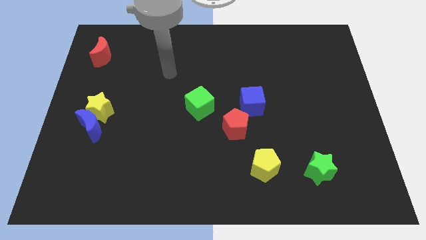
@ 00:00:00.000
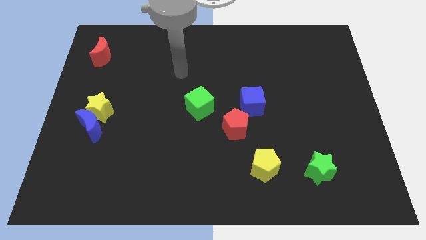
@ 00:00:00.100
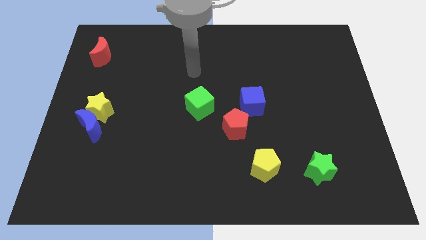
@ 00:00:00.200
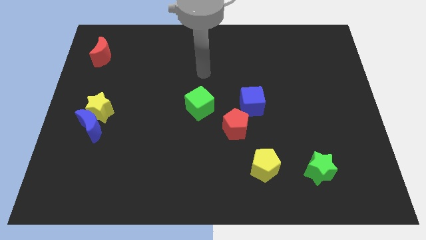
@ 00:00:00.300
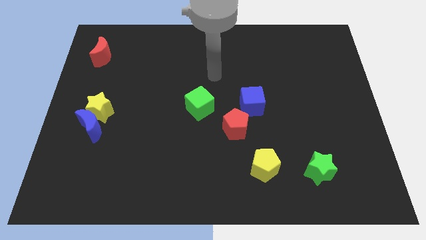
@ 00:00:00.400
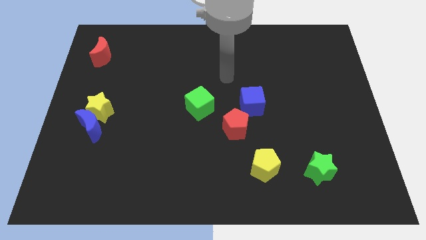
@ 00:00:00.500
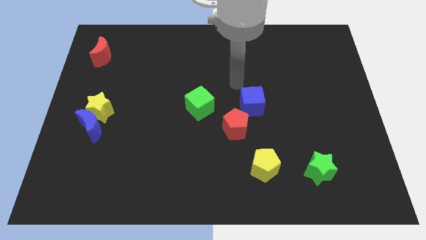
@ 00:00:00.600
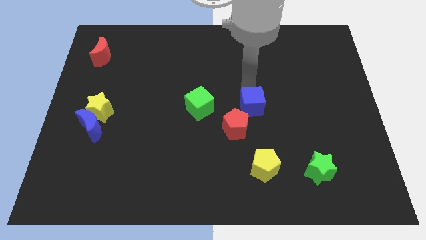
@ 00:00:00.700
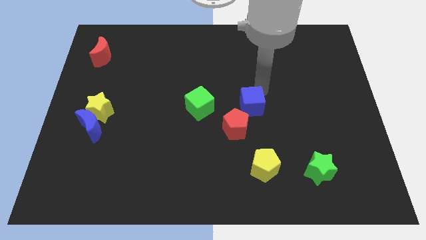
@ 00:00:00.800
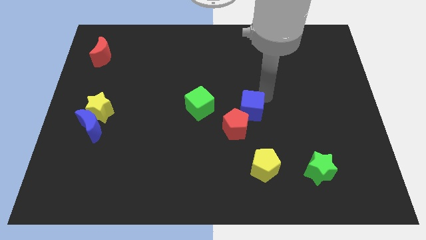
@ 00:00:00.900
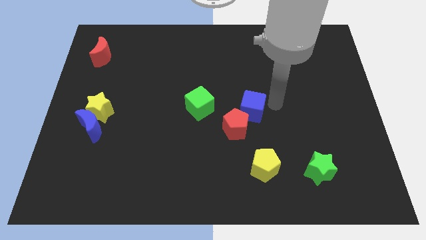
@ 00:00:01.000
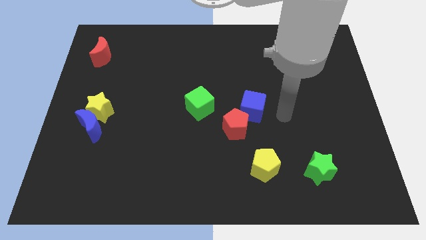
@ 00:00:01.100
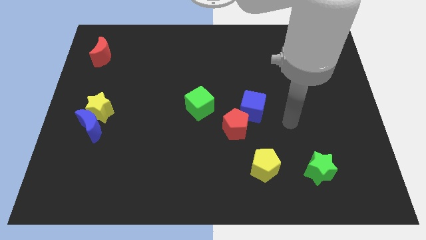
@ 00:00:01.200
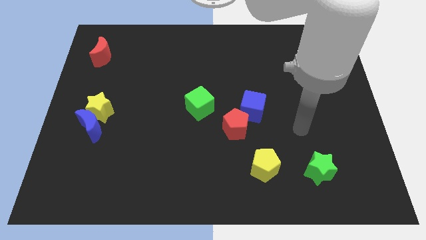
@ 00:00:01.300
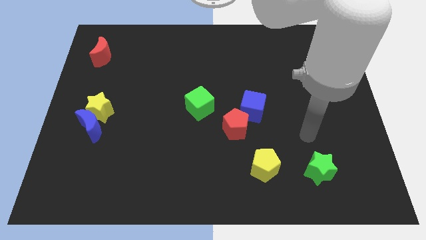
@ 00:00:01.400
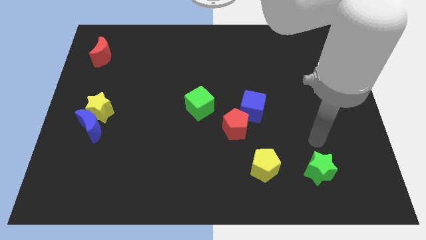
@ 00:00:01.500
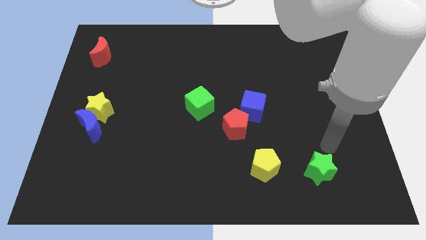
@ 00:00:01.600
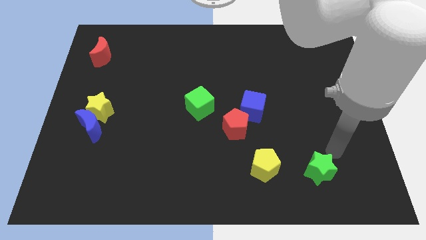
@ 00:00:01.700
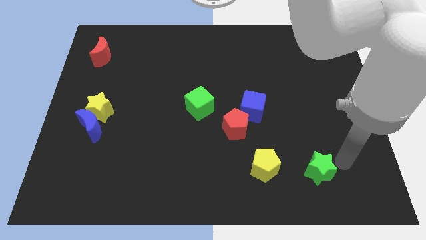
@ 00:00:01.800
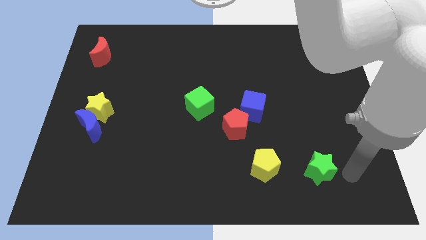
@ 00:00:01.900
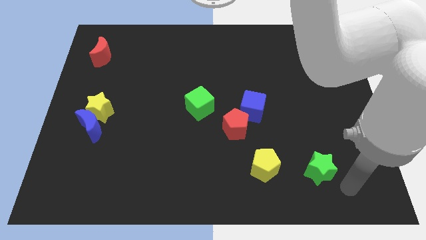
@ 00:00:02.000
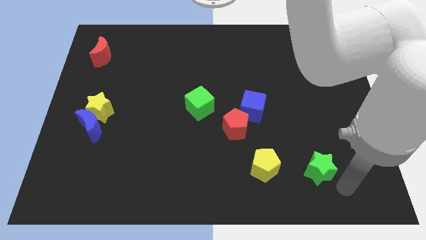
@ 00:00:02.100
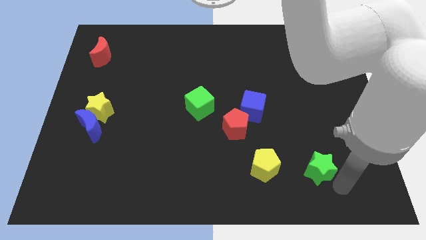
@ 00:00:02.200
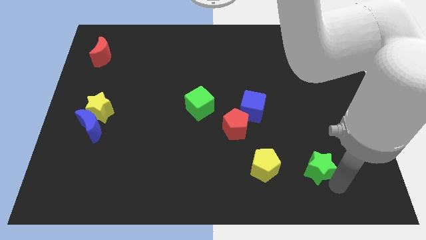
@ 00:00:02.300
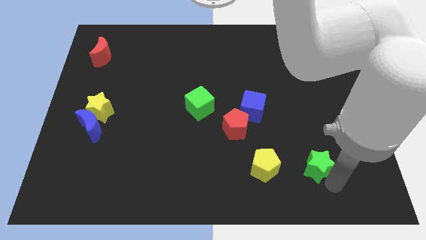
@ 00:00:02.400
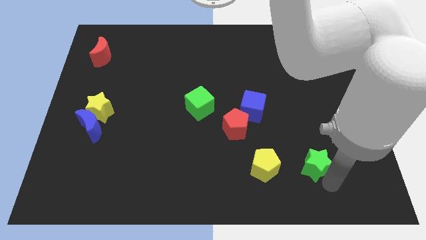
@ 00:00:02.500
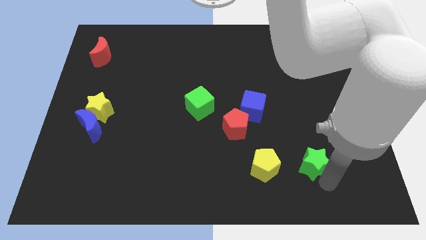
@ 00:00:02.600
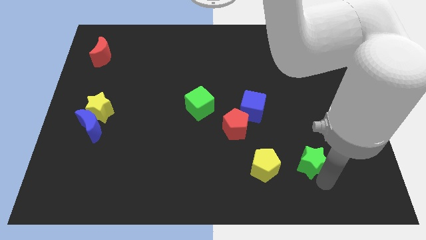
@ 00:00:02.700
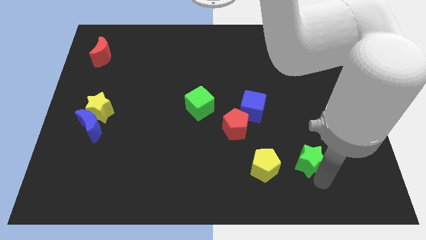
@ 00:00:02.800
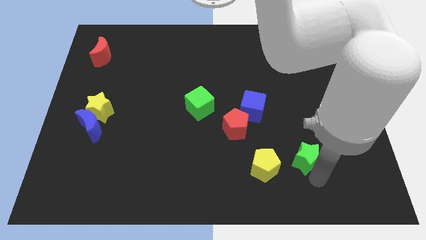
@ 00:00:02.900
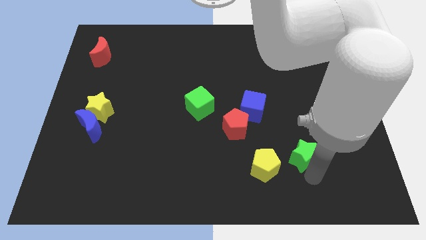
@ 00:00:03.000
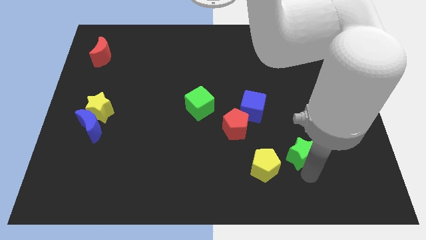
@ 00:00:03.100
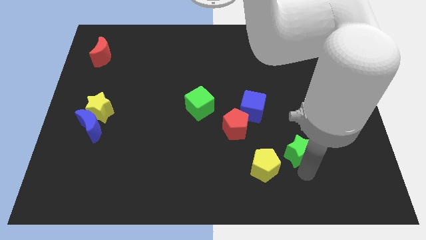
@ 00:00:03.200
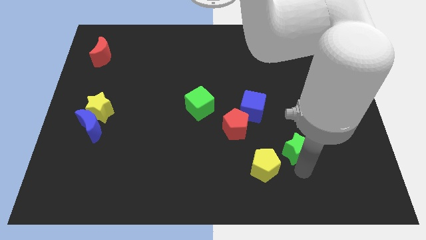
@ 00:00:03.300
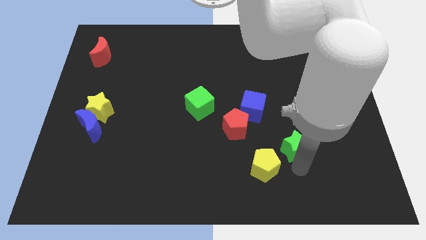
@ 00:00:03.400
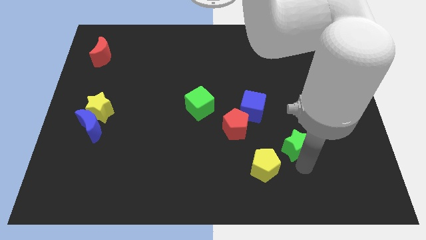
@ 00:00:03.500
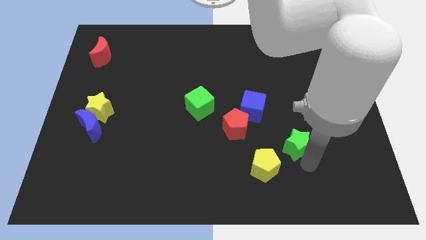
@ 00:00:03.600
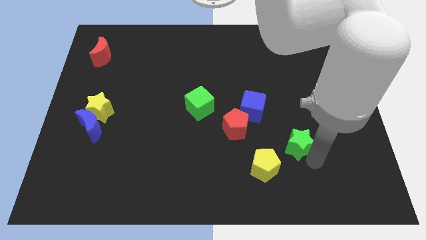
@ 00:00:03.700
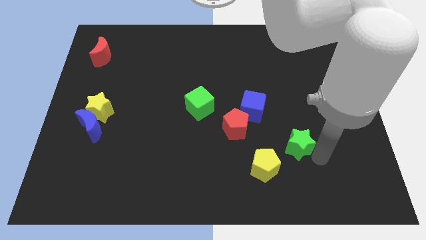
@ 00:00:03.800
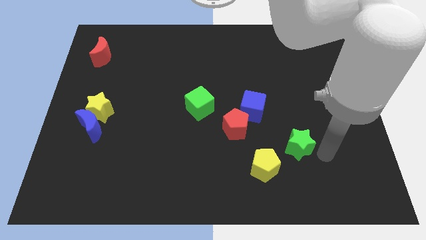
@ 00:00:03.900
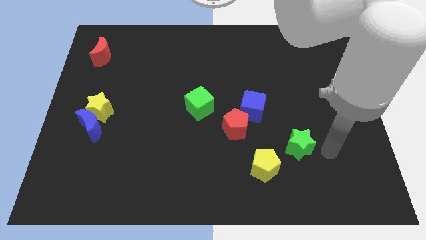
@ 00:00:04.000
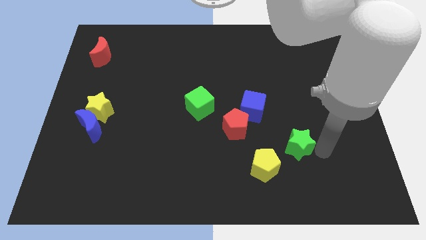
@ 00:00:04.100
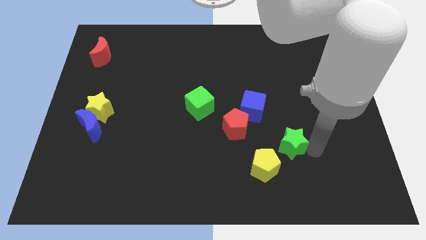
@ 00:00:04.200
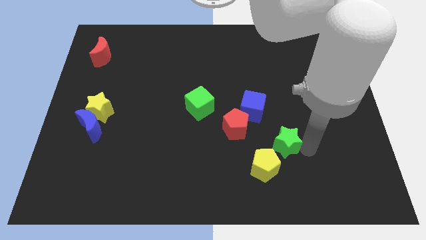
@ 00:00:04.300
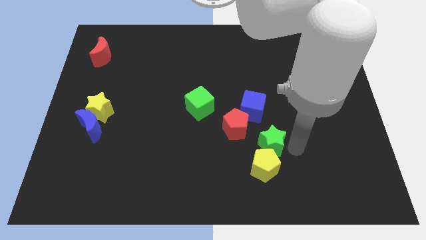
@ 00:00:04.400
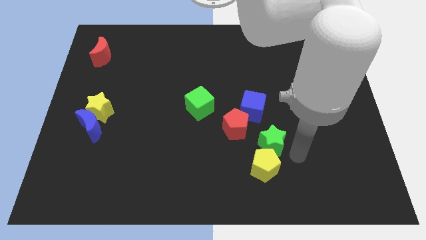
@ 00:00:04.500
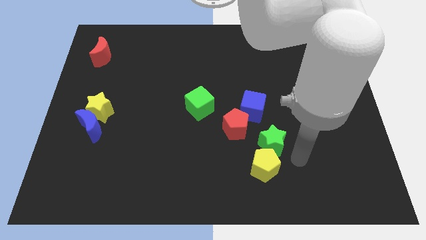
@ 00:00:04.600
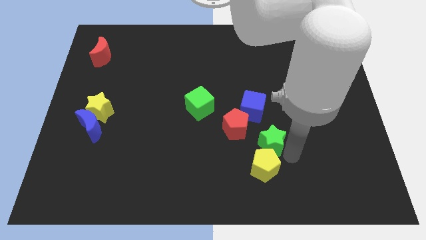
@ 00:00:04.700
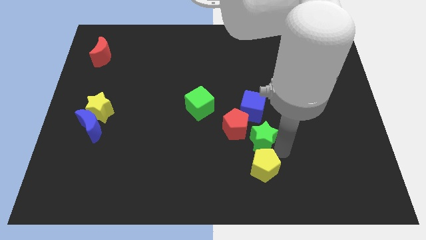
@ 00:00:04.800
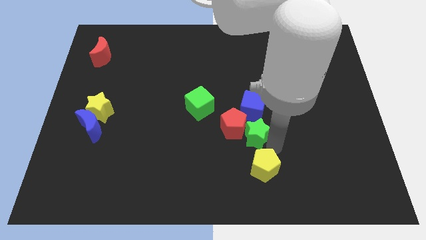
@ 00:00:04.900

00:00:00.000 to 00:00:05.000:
push the green star close to the red pentagon

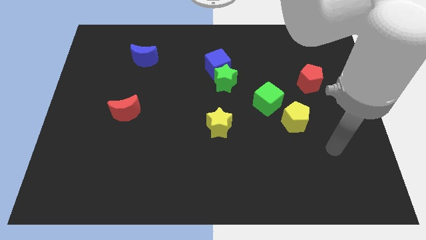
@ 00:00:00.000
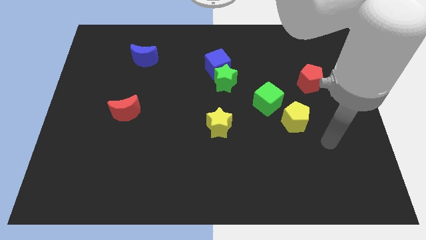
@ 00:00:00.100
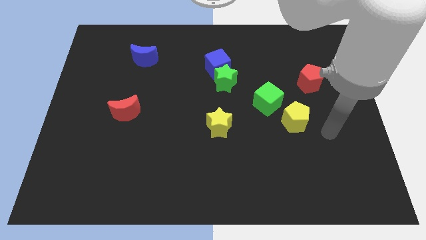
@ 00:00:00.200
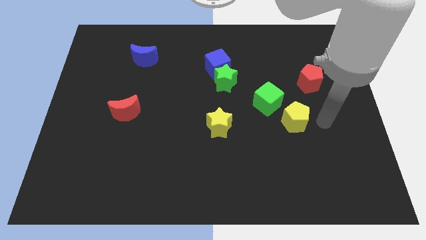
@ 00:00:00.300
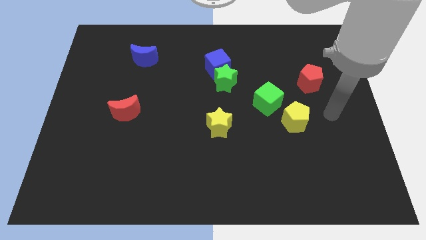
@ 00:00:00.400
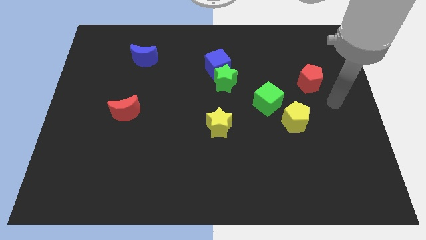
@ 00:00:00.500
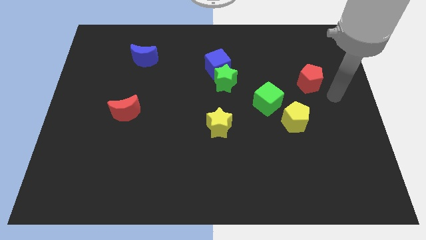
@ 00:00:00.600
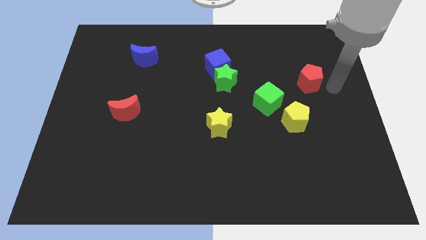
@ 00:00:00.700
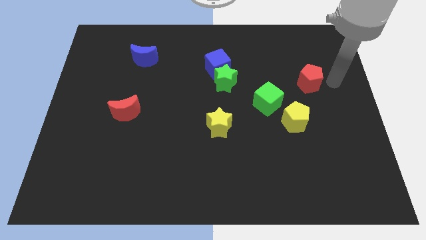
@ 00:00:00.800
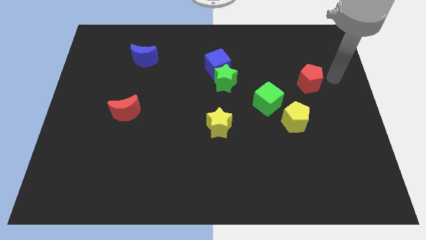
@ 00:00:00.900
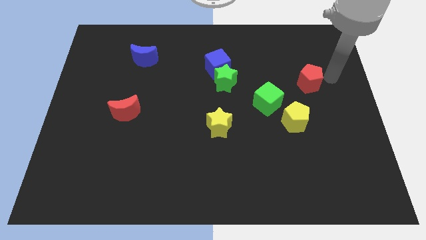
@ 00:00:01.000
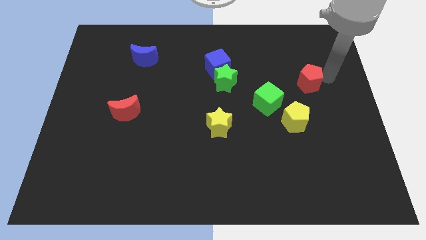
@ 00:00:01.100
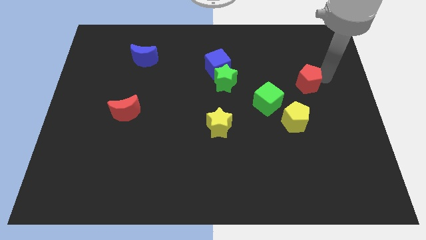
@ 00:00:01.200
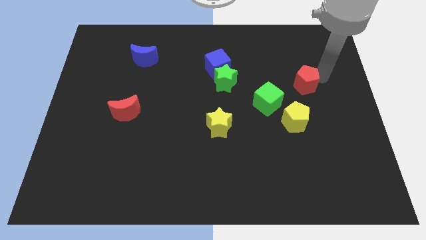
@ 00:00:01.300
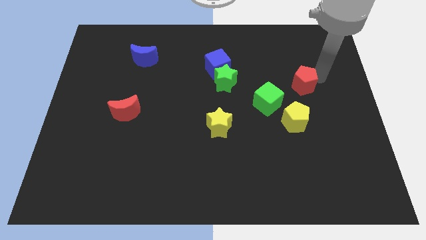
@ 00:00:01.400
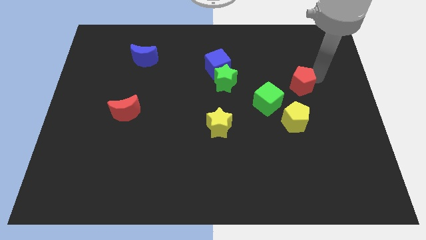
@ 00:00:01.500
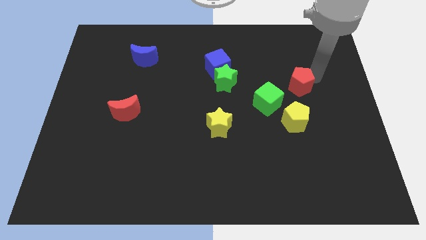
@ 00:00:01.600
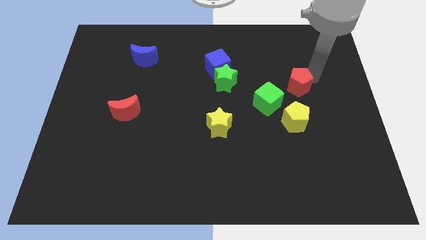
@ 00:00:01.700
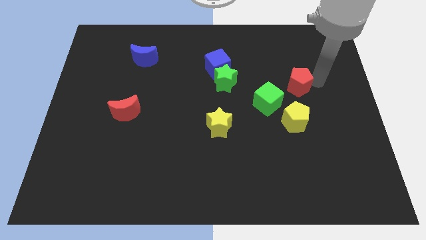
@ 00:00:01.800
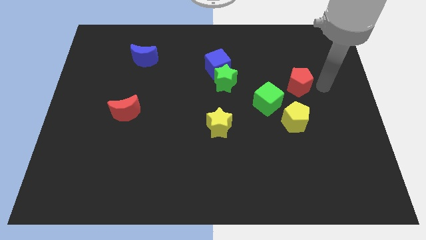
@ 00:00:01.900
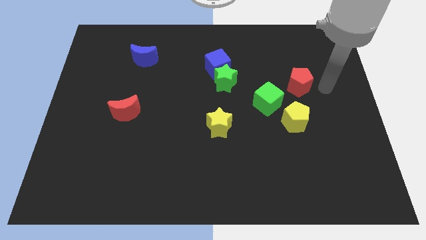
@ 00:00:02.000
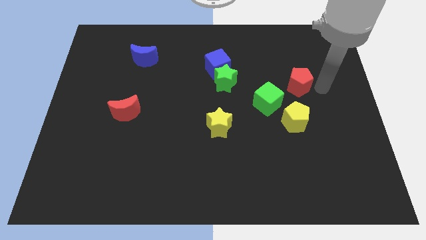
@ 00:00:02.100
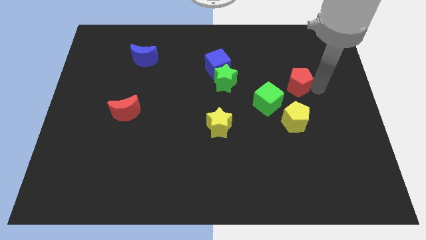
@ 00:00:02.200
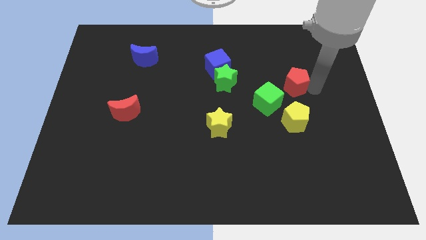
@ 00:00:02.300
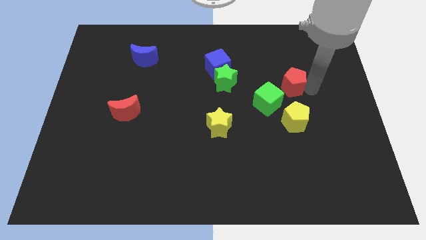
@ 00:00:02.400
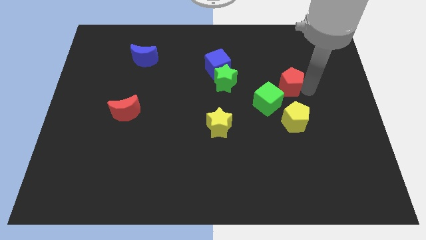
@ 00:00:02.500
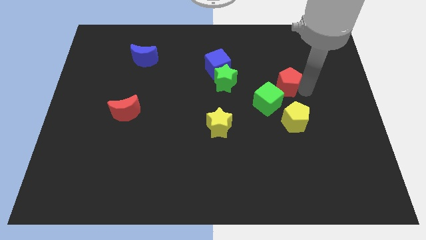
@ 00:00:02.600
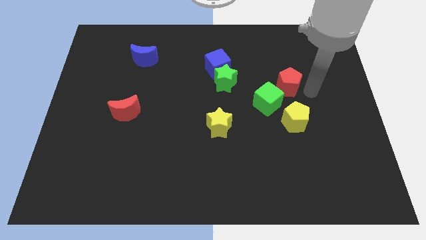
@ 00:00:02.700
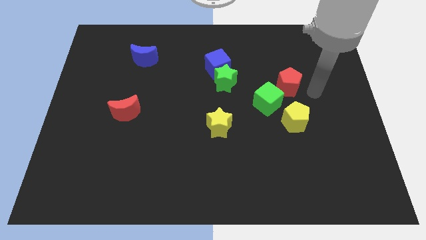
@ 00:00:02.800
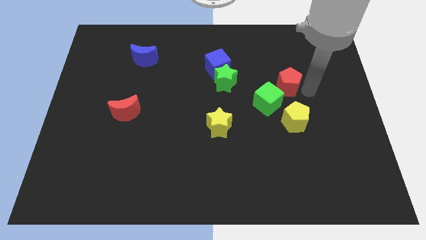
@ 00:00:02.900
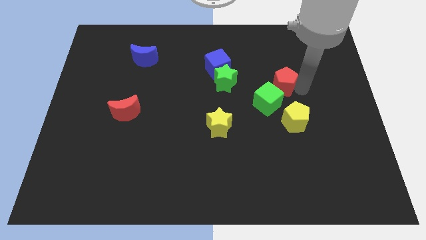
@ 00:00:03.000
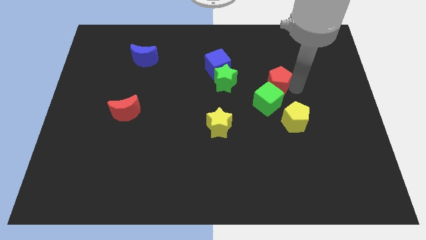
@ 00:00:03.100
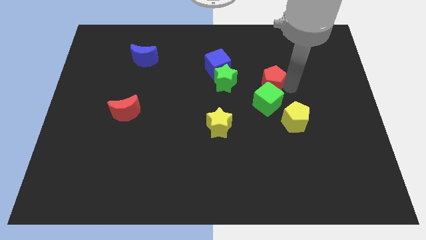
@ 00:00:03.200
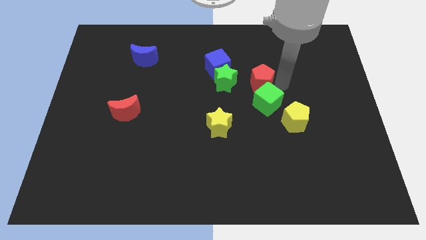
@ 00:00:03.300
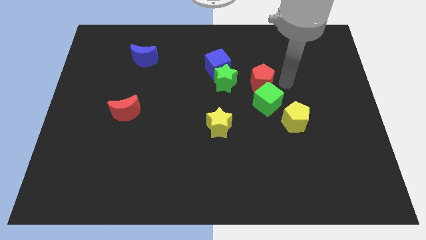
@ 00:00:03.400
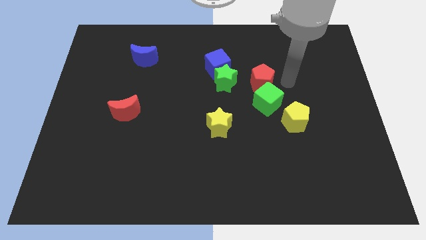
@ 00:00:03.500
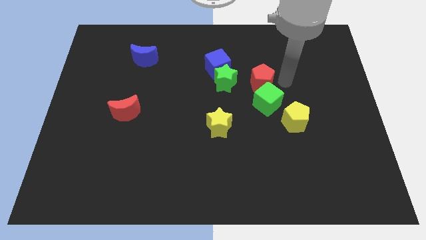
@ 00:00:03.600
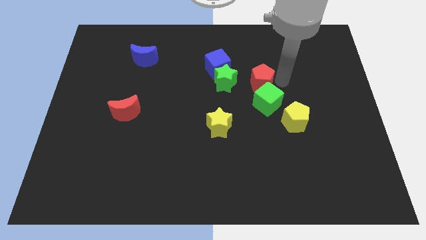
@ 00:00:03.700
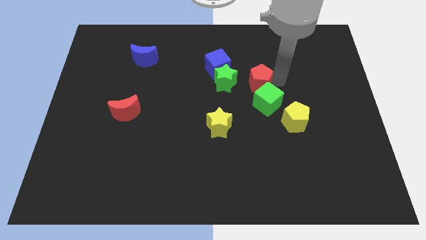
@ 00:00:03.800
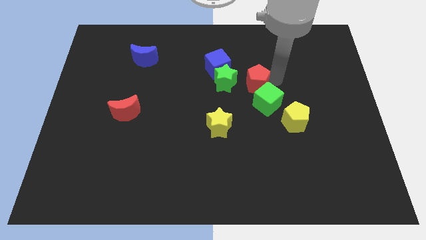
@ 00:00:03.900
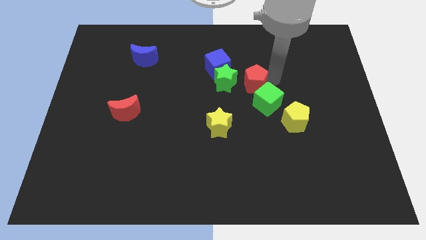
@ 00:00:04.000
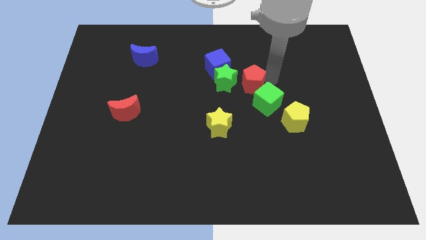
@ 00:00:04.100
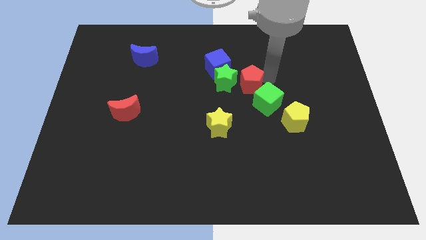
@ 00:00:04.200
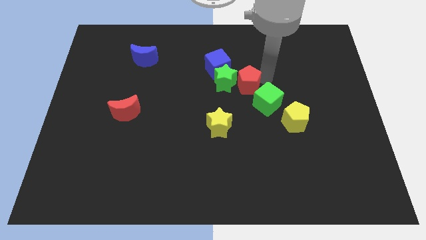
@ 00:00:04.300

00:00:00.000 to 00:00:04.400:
put the red pentagon next to the green star
